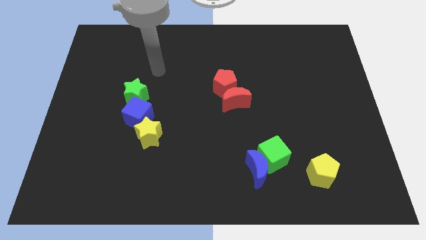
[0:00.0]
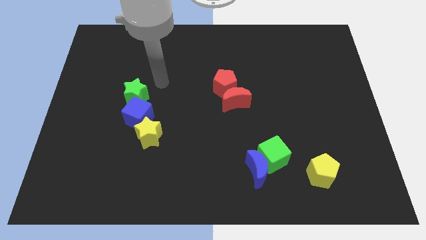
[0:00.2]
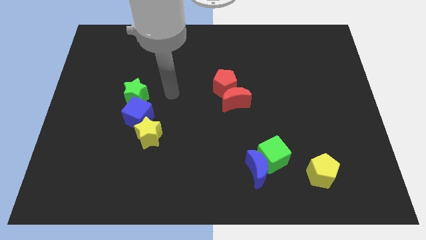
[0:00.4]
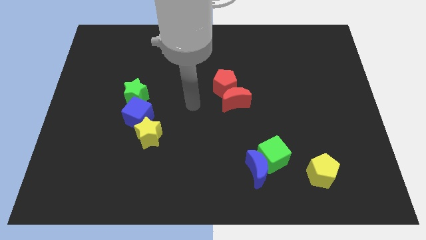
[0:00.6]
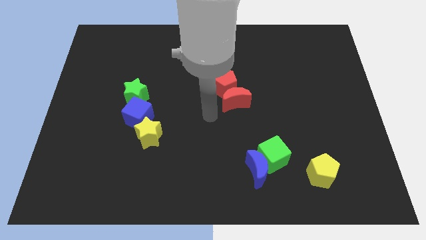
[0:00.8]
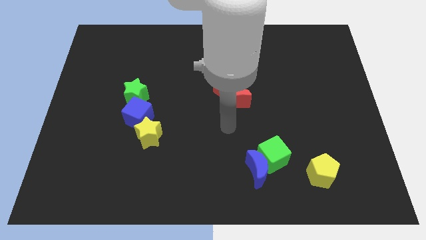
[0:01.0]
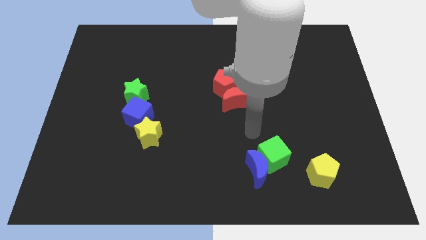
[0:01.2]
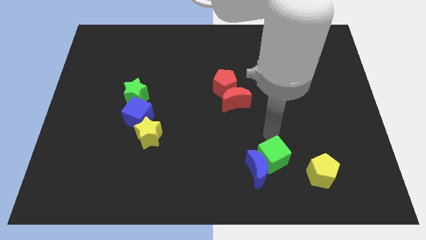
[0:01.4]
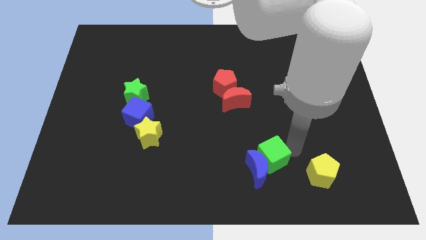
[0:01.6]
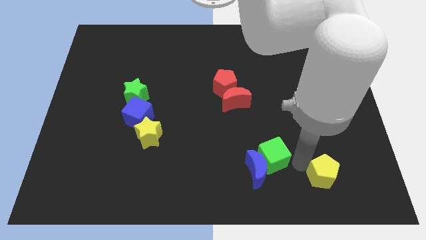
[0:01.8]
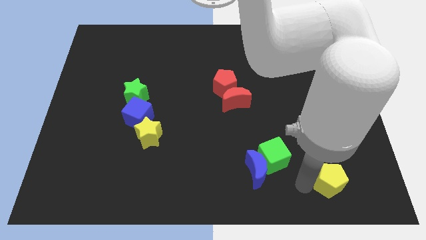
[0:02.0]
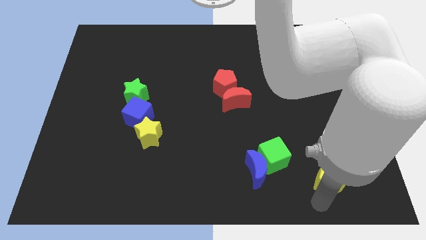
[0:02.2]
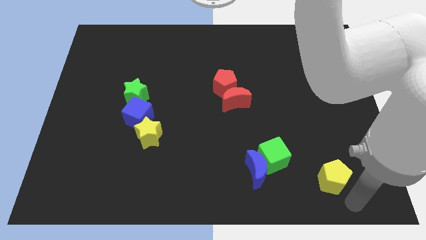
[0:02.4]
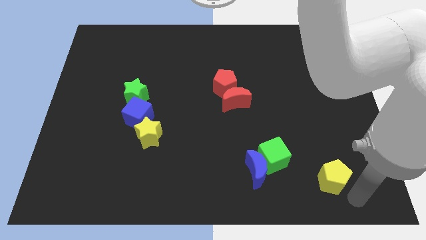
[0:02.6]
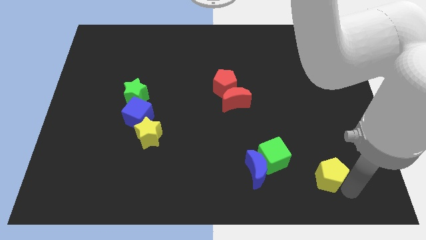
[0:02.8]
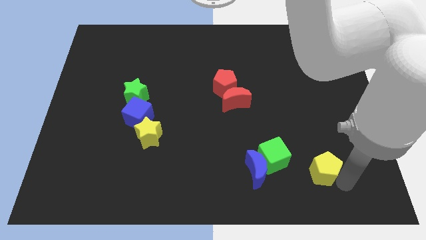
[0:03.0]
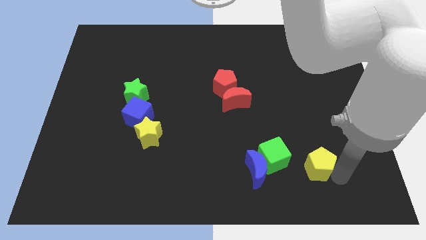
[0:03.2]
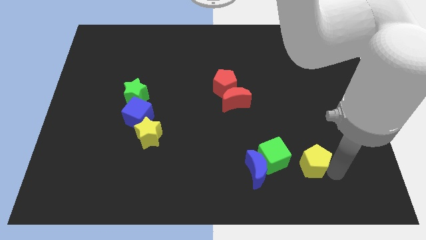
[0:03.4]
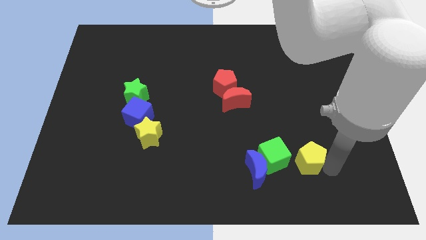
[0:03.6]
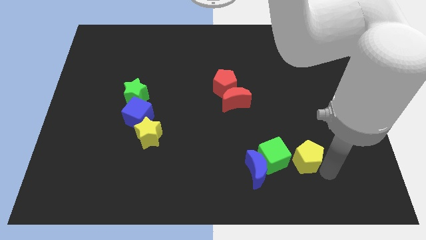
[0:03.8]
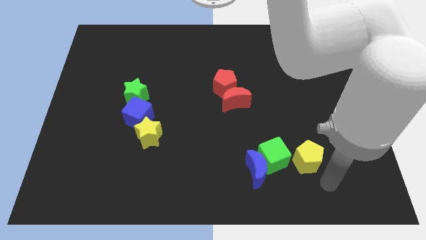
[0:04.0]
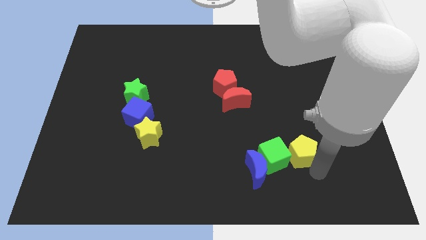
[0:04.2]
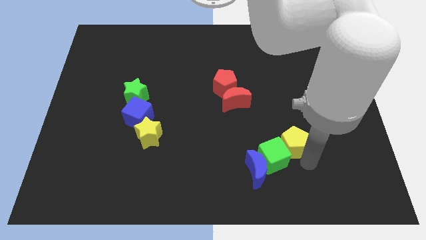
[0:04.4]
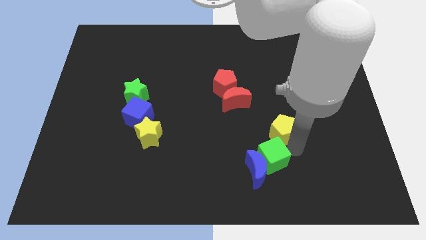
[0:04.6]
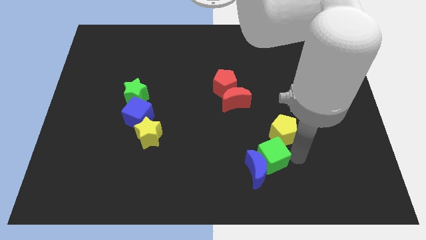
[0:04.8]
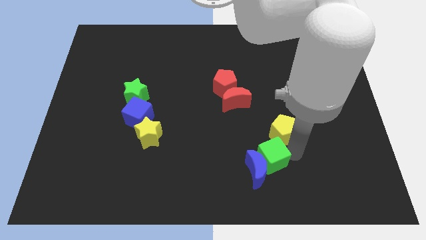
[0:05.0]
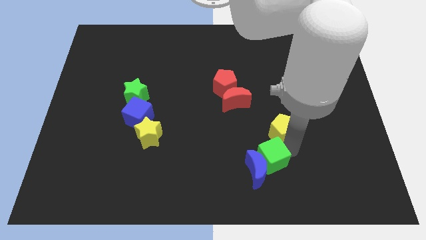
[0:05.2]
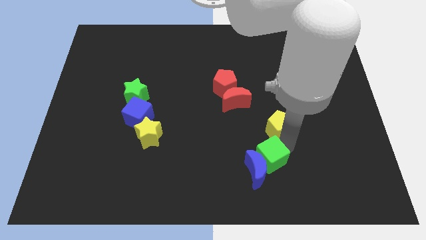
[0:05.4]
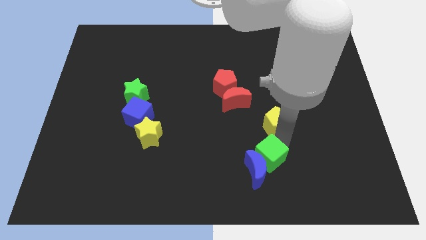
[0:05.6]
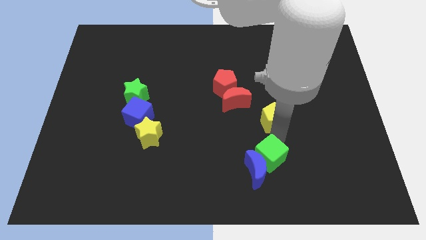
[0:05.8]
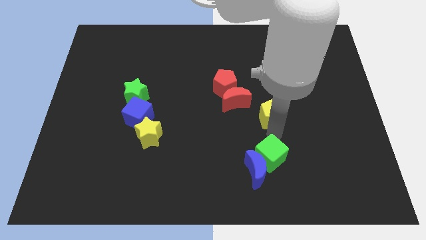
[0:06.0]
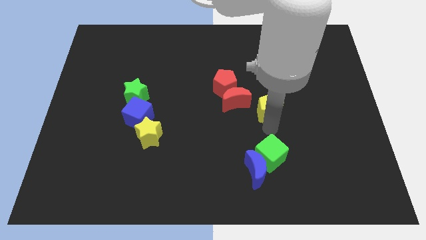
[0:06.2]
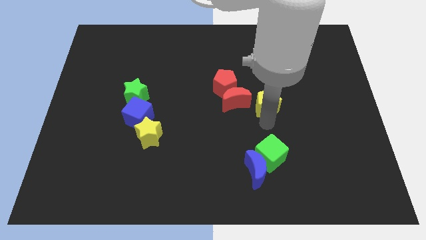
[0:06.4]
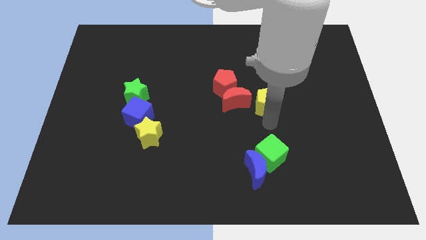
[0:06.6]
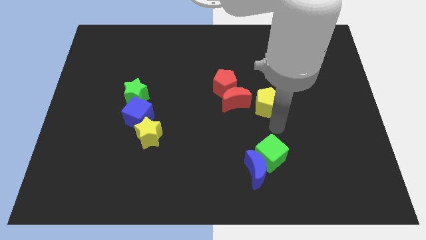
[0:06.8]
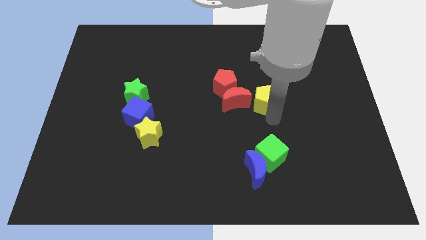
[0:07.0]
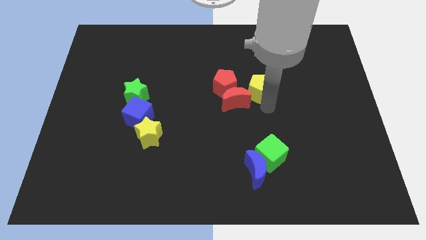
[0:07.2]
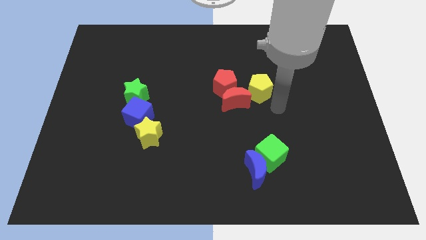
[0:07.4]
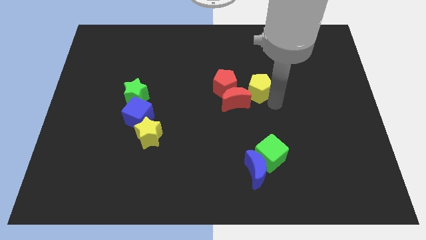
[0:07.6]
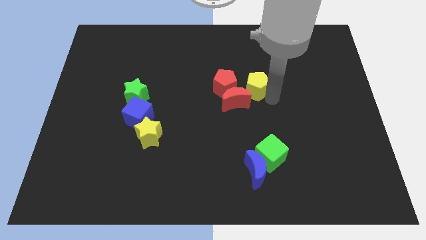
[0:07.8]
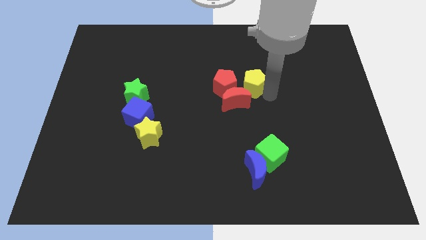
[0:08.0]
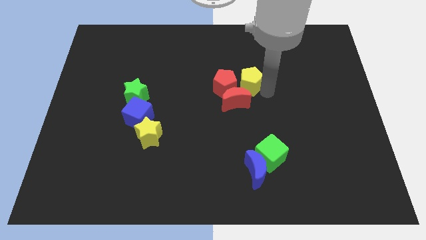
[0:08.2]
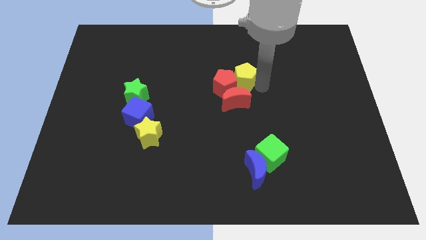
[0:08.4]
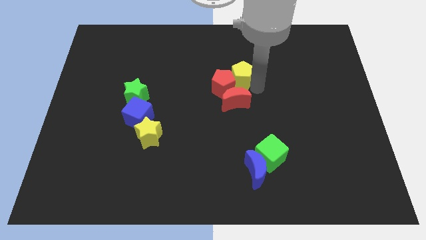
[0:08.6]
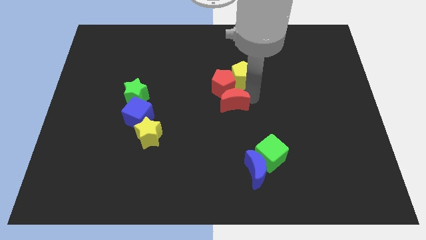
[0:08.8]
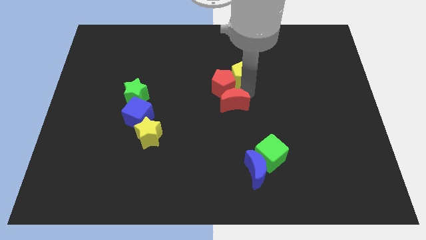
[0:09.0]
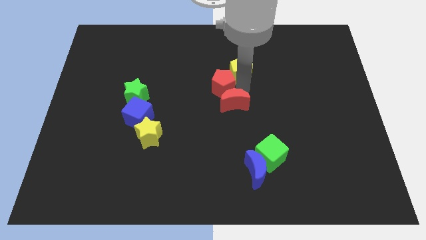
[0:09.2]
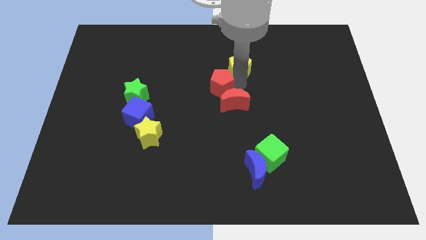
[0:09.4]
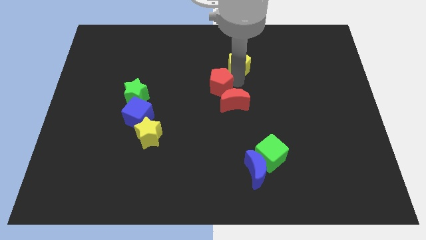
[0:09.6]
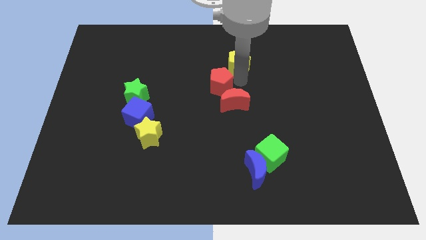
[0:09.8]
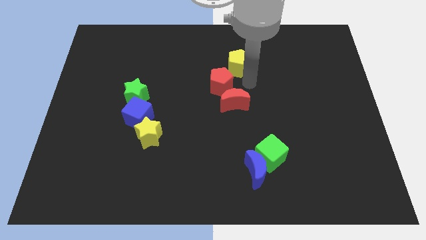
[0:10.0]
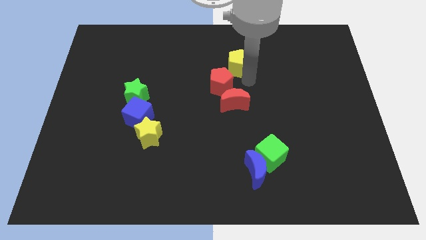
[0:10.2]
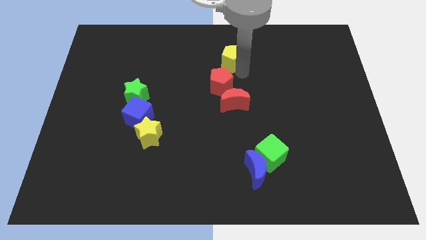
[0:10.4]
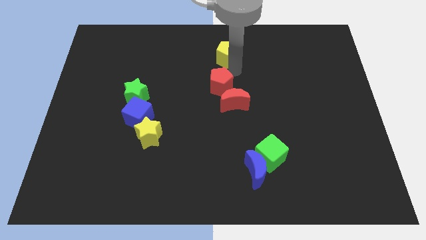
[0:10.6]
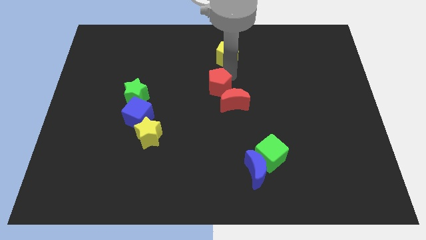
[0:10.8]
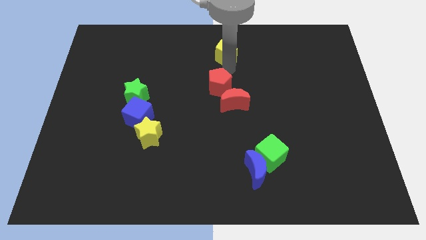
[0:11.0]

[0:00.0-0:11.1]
slide the yellow pentagon to the towards your base

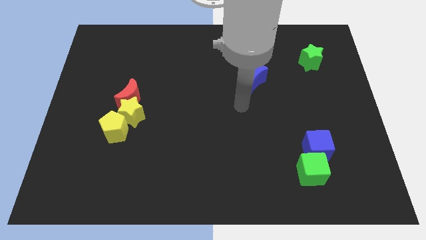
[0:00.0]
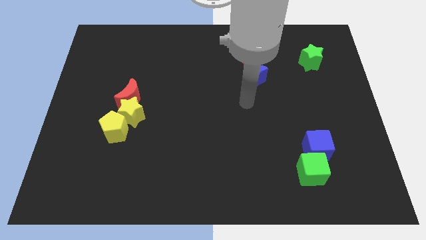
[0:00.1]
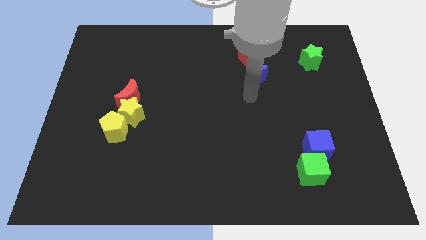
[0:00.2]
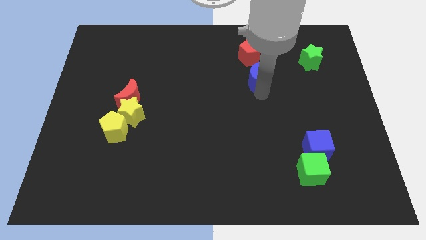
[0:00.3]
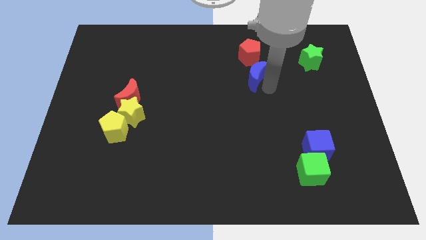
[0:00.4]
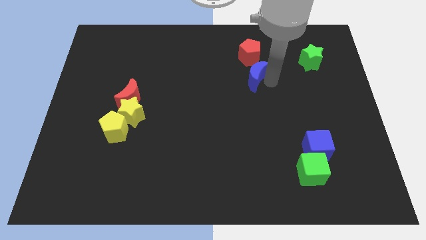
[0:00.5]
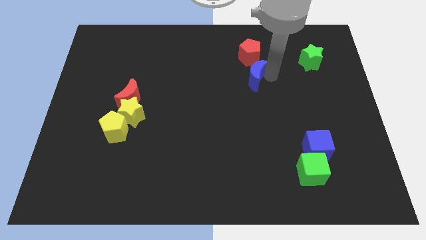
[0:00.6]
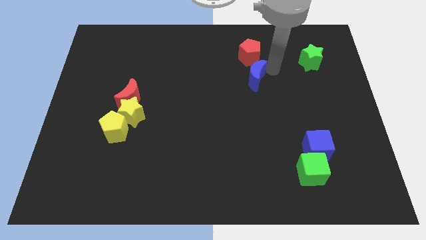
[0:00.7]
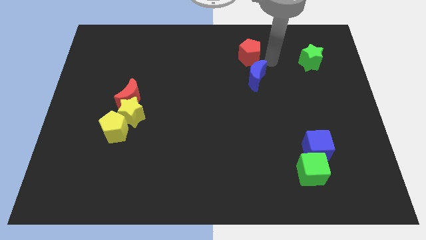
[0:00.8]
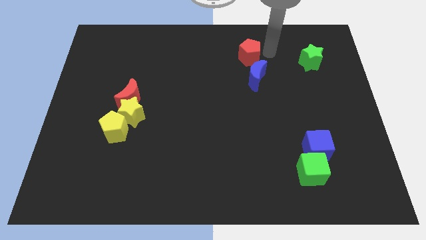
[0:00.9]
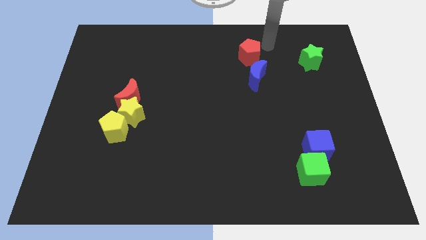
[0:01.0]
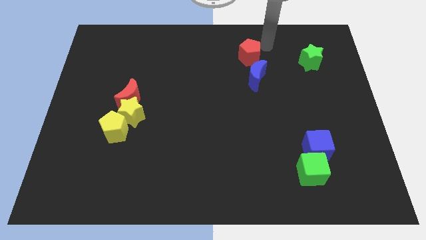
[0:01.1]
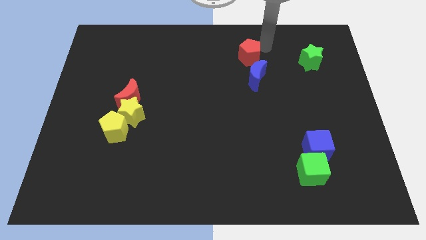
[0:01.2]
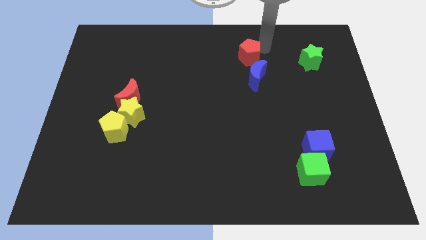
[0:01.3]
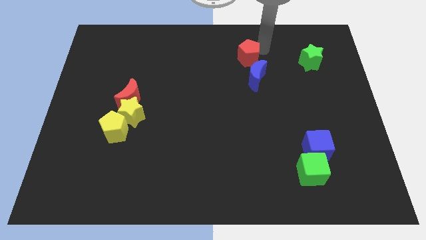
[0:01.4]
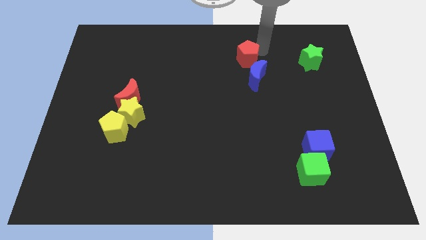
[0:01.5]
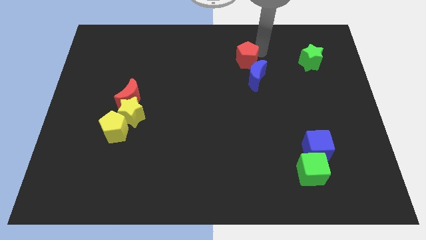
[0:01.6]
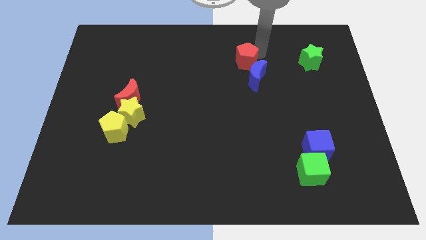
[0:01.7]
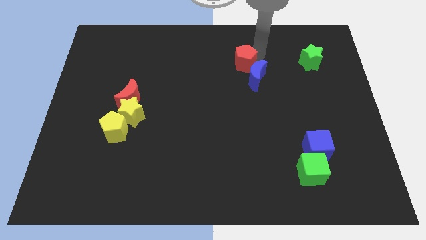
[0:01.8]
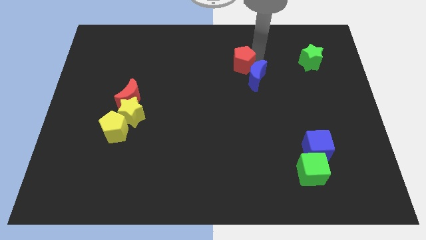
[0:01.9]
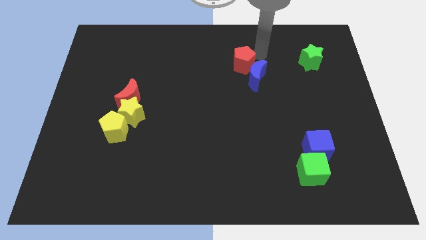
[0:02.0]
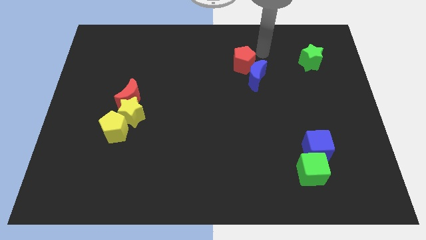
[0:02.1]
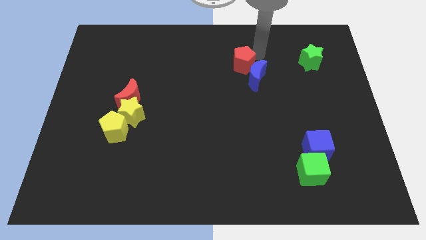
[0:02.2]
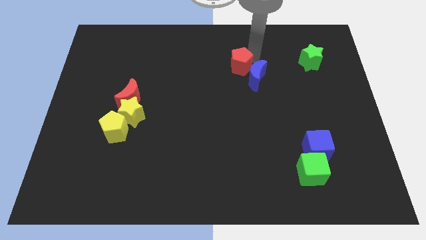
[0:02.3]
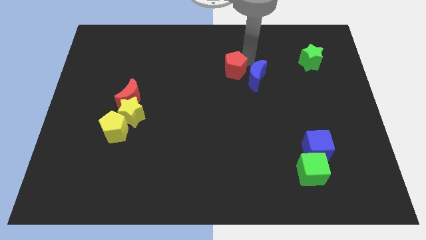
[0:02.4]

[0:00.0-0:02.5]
move the red pentagon to the center
